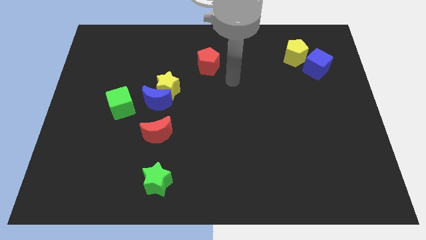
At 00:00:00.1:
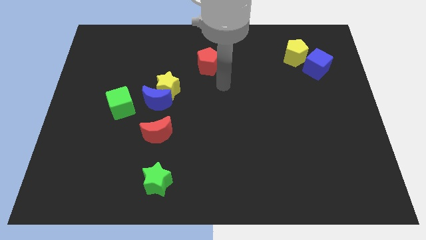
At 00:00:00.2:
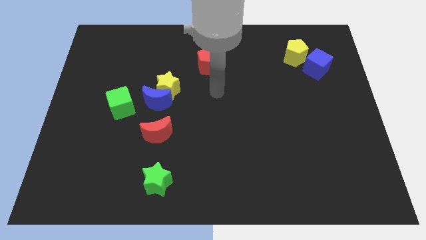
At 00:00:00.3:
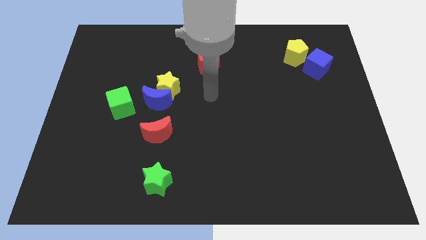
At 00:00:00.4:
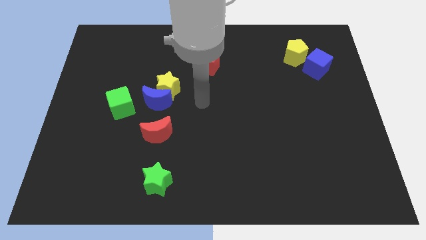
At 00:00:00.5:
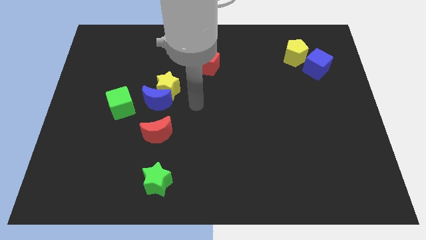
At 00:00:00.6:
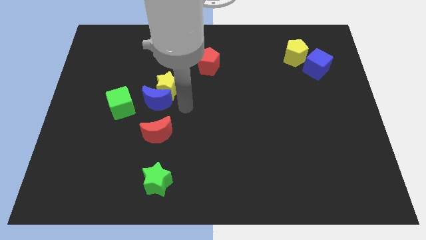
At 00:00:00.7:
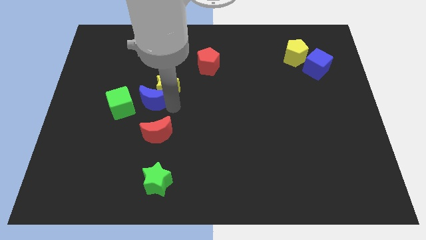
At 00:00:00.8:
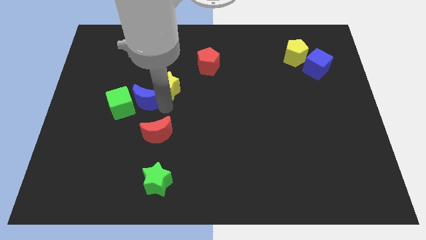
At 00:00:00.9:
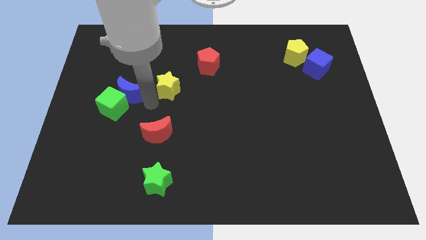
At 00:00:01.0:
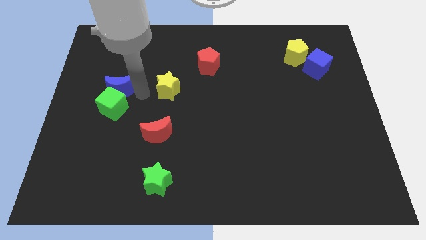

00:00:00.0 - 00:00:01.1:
pull the yellow star apart from the blue moon

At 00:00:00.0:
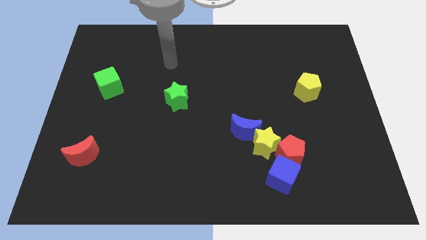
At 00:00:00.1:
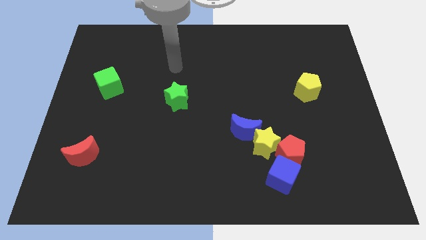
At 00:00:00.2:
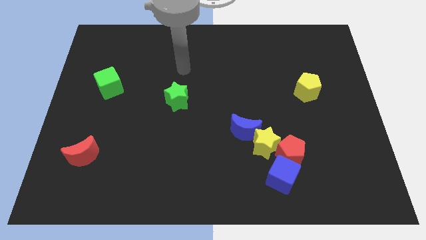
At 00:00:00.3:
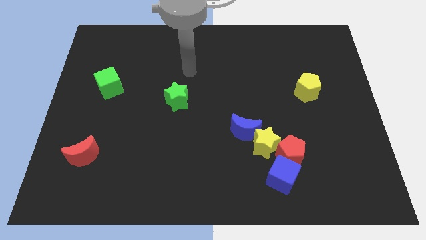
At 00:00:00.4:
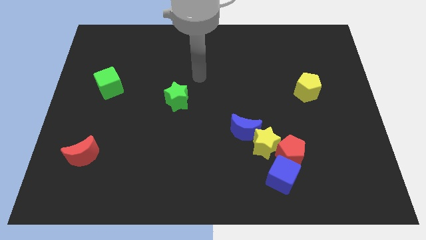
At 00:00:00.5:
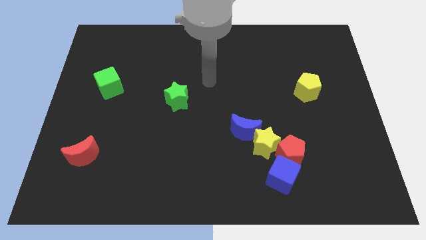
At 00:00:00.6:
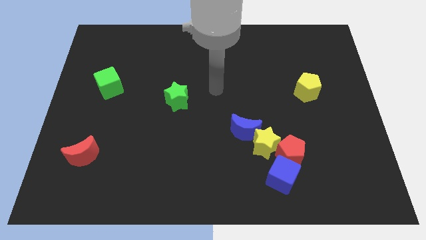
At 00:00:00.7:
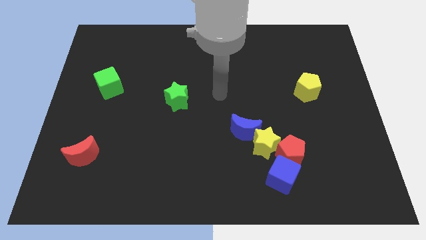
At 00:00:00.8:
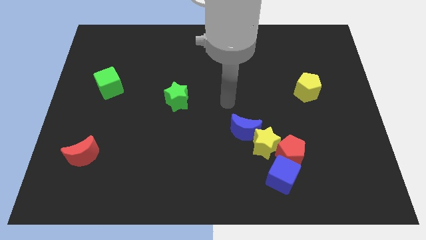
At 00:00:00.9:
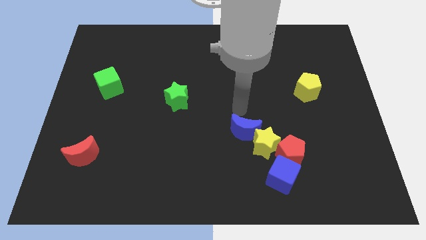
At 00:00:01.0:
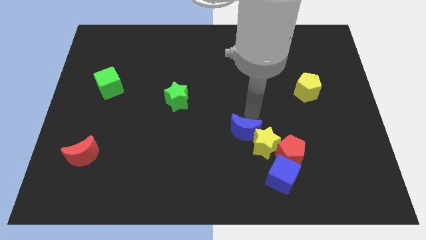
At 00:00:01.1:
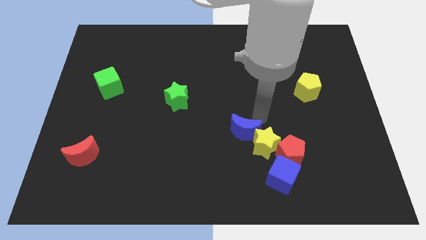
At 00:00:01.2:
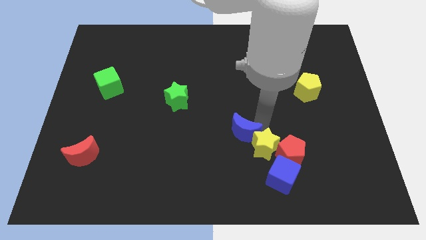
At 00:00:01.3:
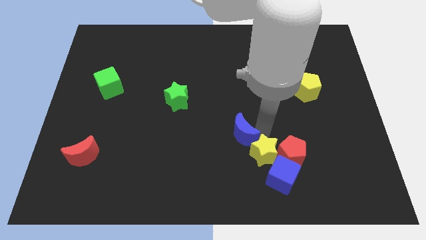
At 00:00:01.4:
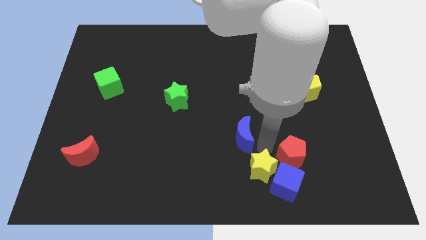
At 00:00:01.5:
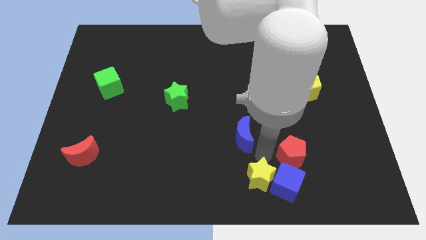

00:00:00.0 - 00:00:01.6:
separate the blue moon from the yellow star

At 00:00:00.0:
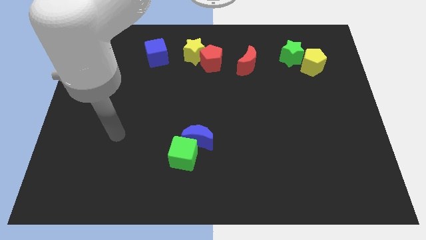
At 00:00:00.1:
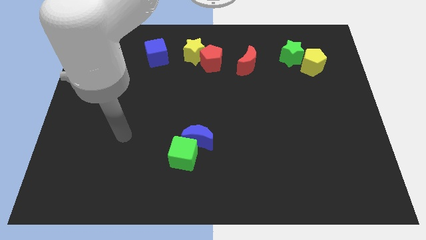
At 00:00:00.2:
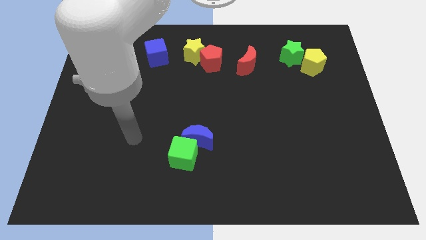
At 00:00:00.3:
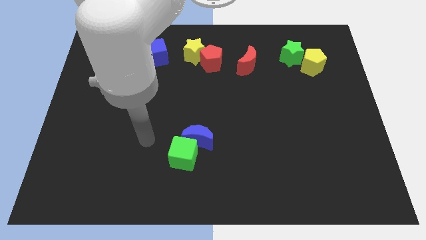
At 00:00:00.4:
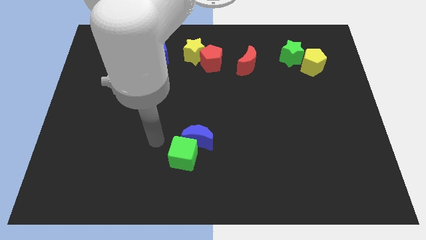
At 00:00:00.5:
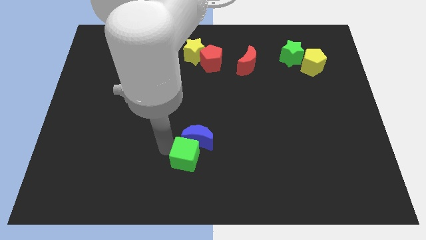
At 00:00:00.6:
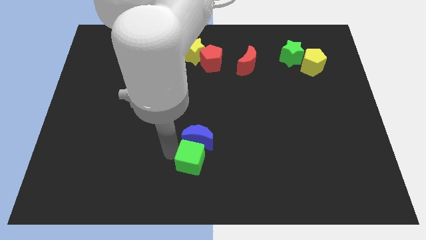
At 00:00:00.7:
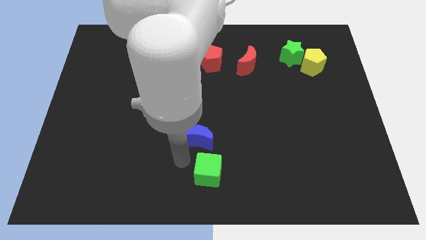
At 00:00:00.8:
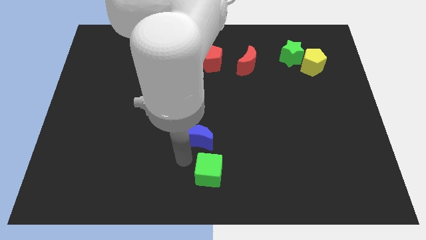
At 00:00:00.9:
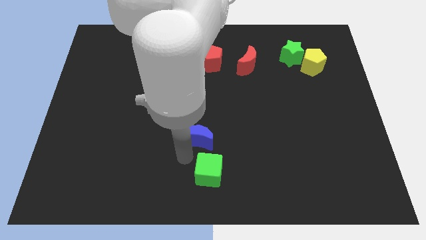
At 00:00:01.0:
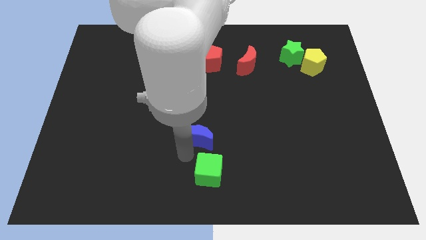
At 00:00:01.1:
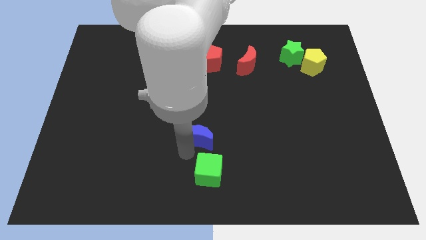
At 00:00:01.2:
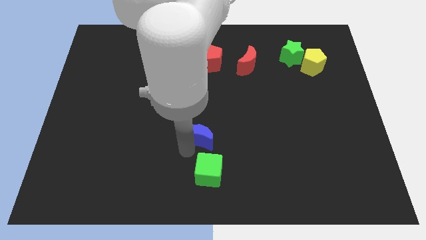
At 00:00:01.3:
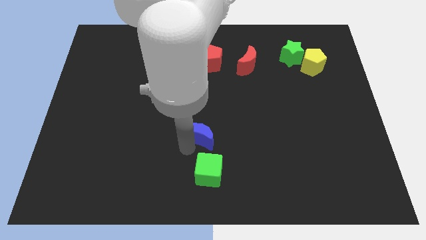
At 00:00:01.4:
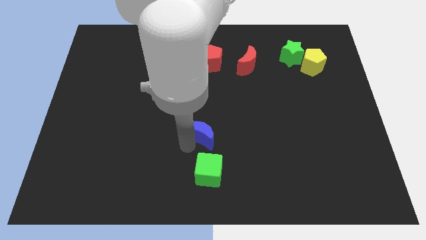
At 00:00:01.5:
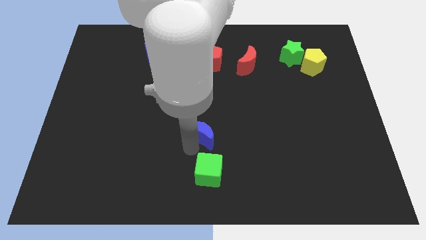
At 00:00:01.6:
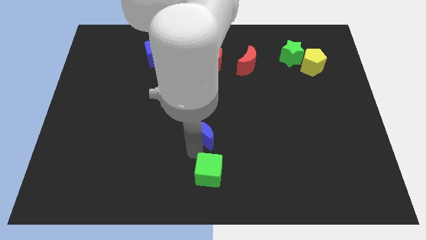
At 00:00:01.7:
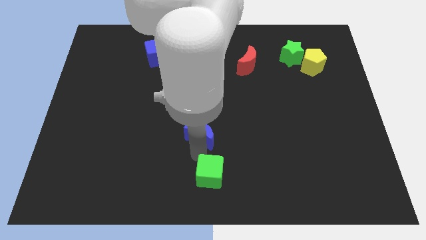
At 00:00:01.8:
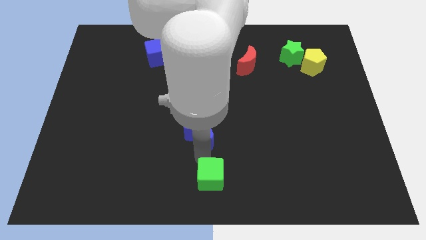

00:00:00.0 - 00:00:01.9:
separate the blue moon from the green cube

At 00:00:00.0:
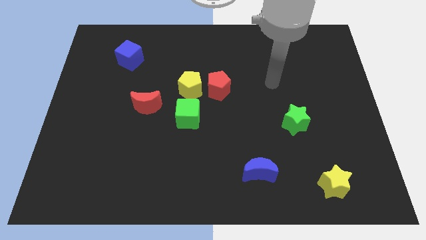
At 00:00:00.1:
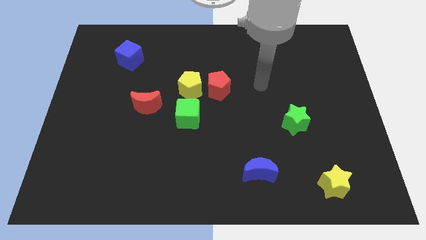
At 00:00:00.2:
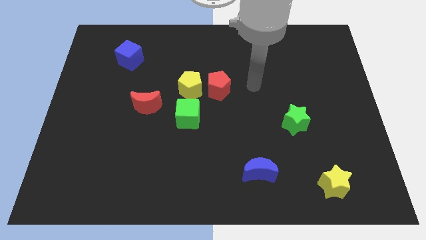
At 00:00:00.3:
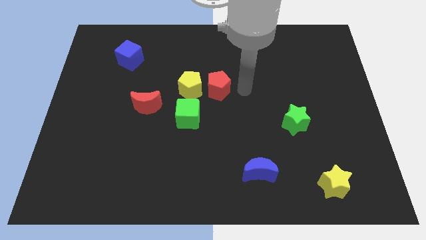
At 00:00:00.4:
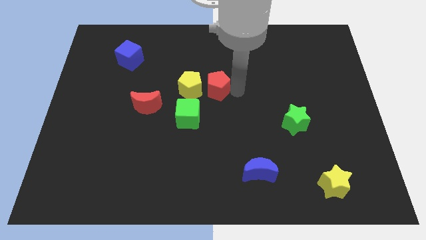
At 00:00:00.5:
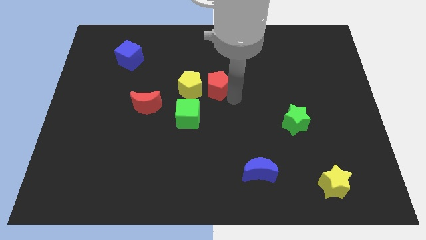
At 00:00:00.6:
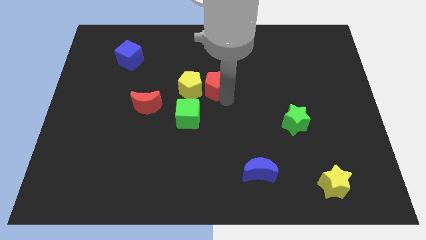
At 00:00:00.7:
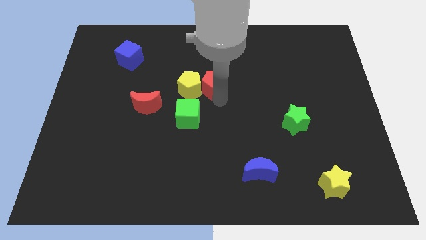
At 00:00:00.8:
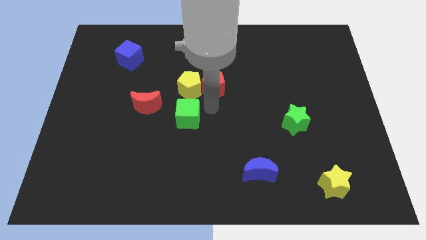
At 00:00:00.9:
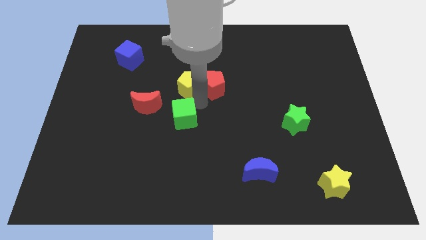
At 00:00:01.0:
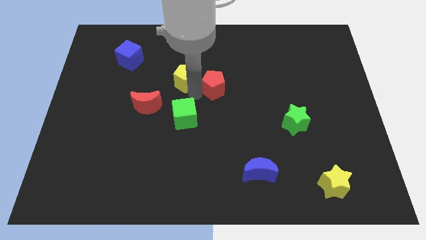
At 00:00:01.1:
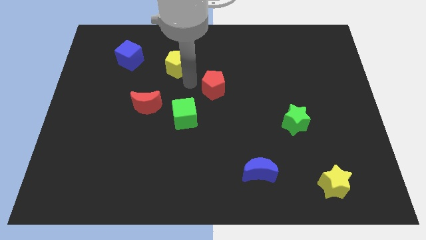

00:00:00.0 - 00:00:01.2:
separate the red pentagon from the yellow pentagon

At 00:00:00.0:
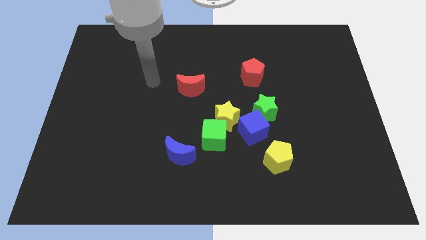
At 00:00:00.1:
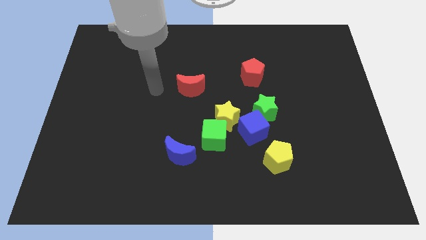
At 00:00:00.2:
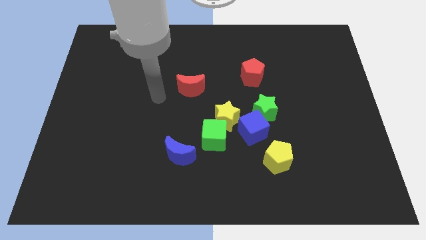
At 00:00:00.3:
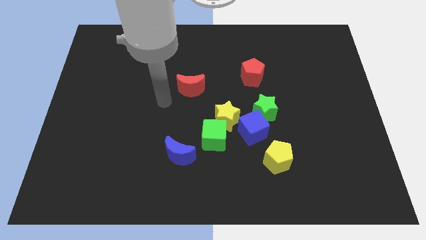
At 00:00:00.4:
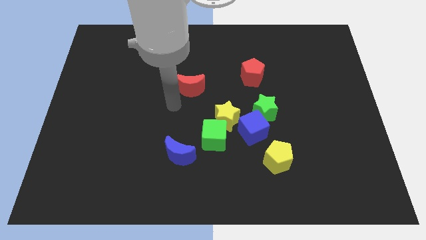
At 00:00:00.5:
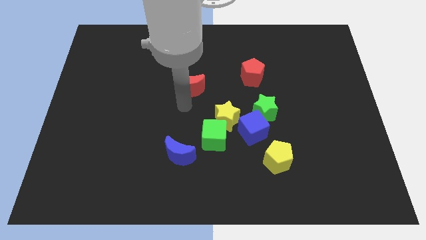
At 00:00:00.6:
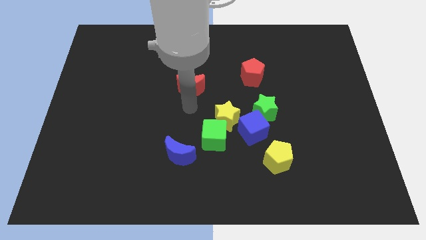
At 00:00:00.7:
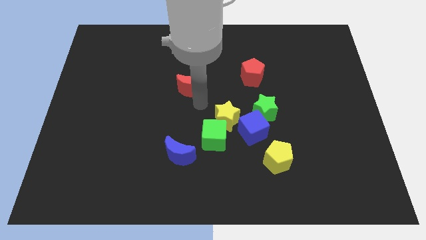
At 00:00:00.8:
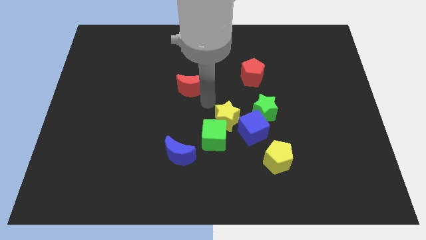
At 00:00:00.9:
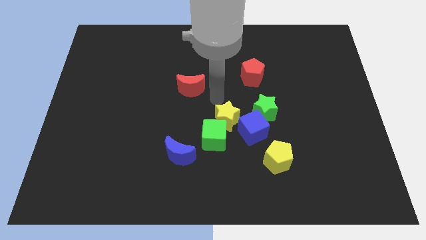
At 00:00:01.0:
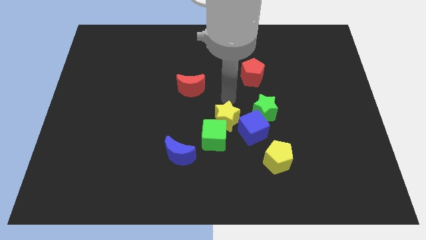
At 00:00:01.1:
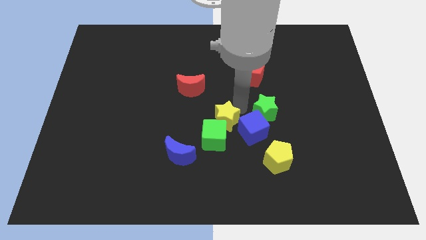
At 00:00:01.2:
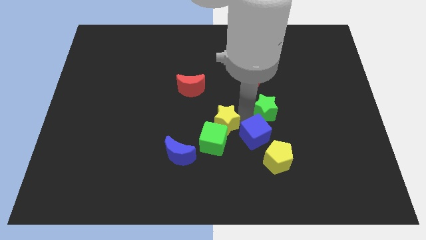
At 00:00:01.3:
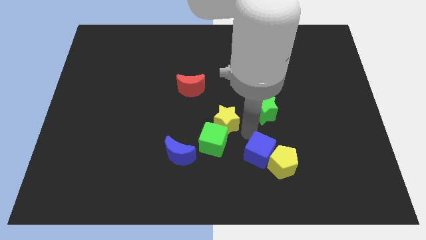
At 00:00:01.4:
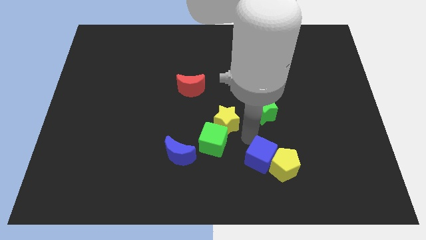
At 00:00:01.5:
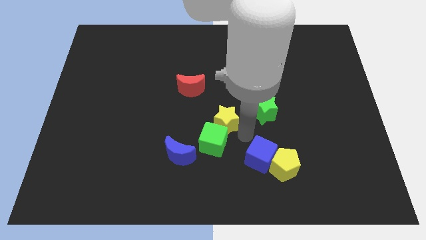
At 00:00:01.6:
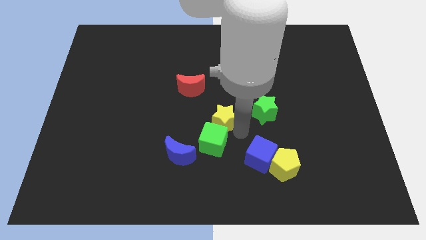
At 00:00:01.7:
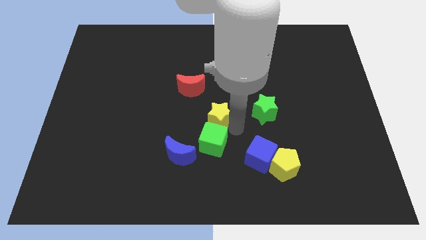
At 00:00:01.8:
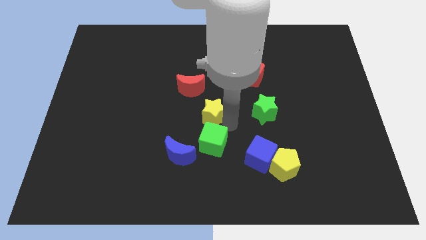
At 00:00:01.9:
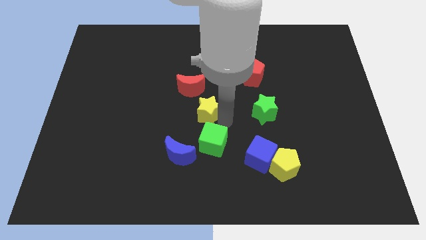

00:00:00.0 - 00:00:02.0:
move the yellow star away from the group of blocks

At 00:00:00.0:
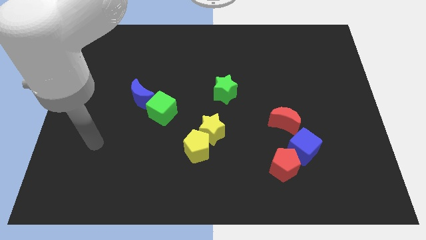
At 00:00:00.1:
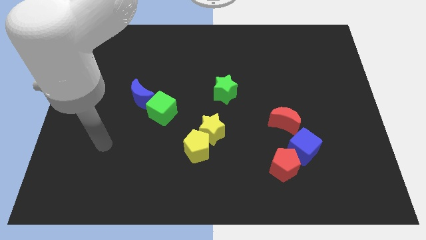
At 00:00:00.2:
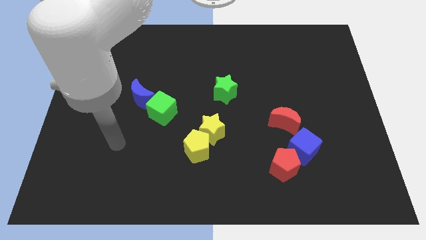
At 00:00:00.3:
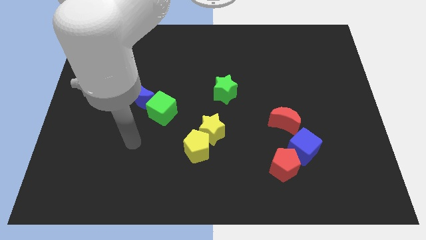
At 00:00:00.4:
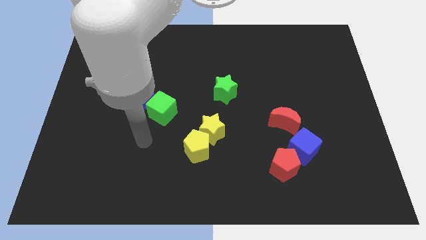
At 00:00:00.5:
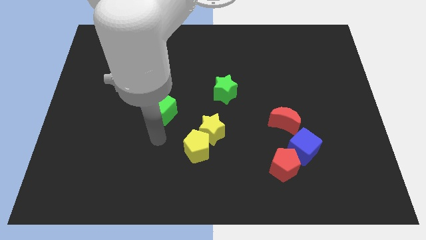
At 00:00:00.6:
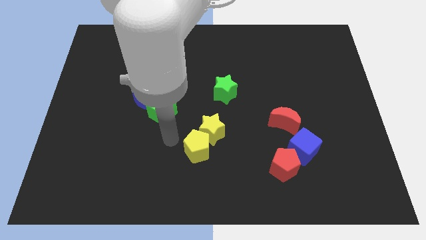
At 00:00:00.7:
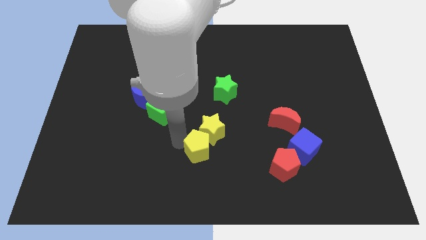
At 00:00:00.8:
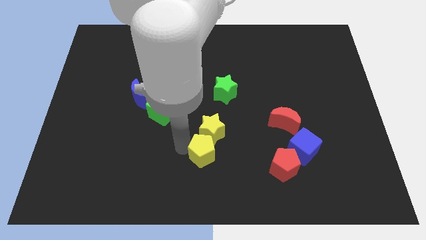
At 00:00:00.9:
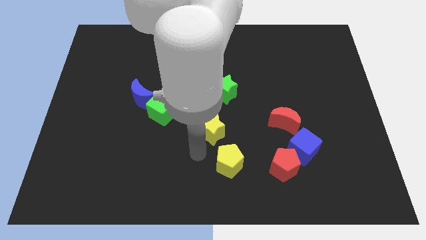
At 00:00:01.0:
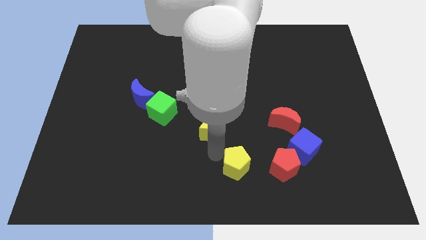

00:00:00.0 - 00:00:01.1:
separate the yellow star from the yellow pentagon
